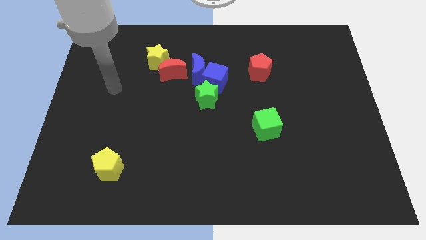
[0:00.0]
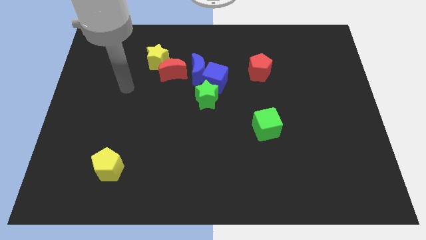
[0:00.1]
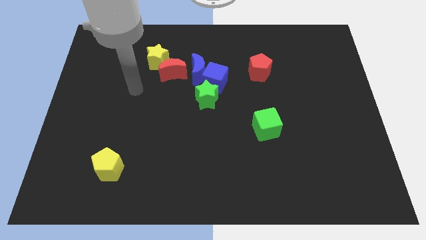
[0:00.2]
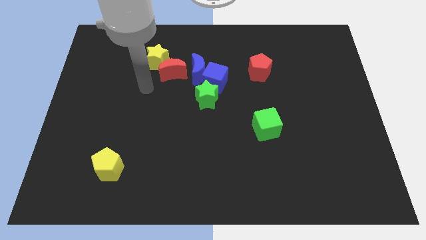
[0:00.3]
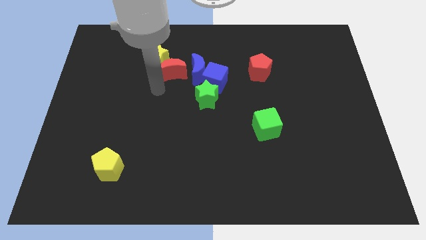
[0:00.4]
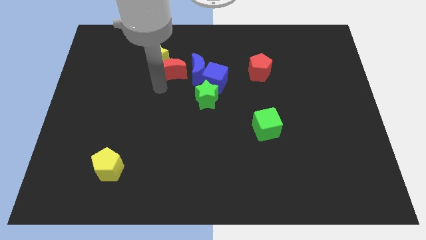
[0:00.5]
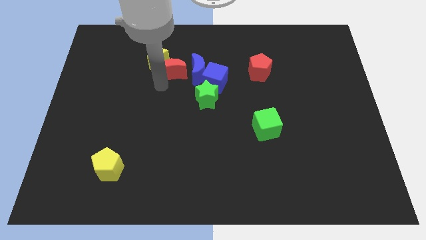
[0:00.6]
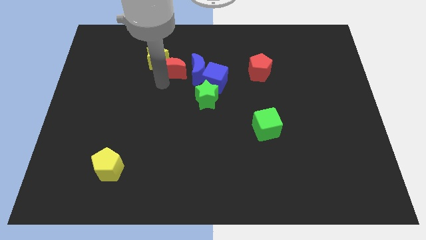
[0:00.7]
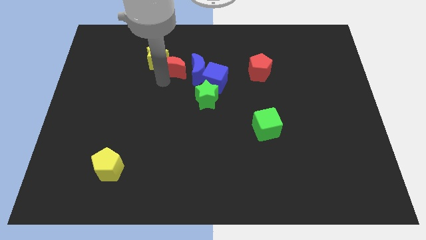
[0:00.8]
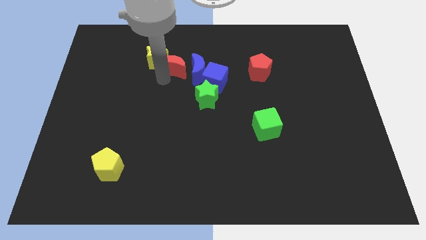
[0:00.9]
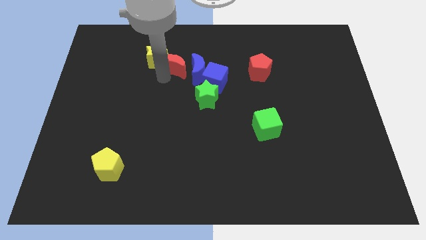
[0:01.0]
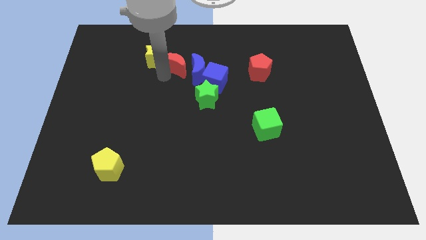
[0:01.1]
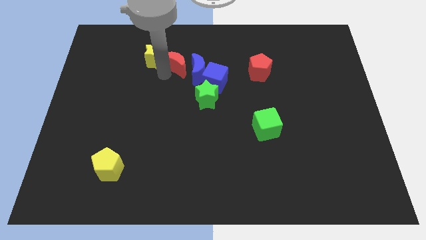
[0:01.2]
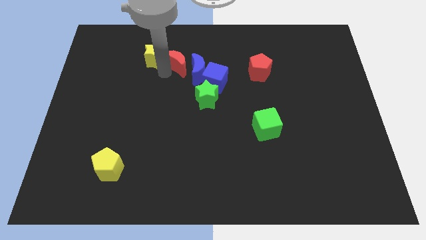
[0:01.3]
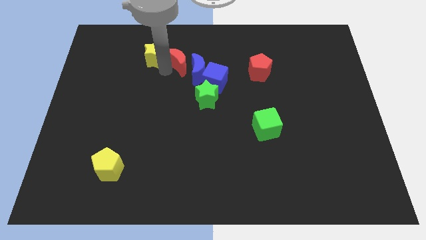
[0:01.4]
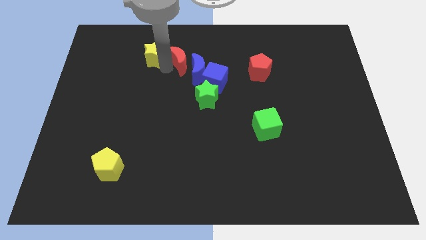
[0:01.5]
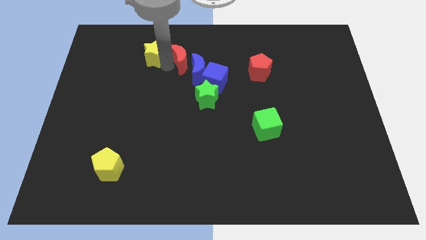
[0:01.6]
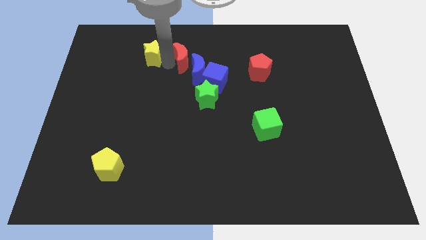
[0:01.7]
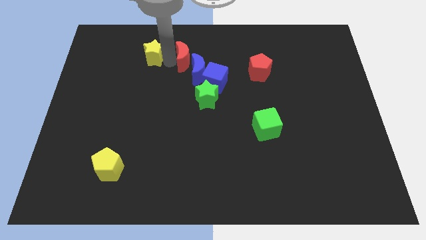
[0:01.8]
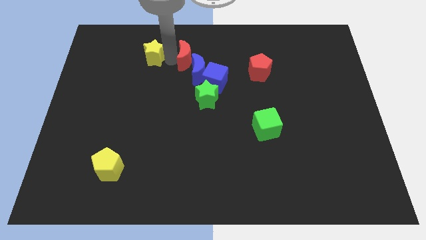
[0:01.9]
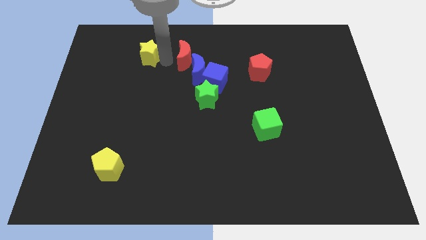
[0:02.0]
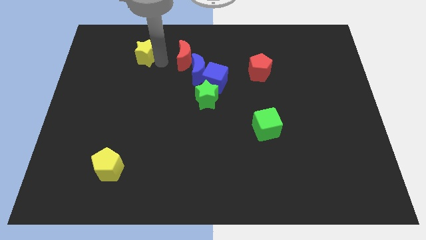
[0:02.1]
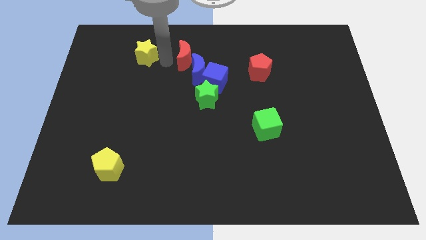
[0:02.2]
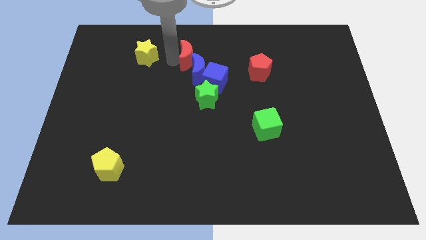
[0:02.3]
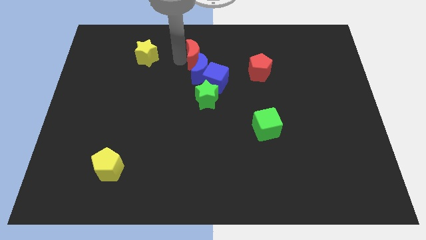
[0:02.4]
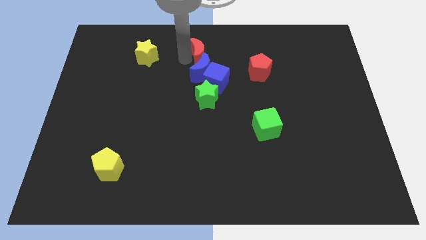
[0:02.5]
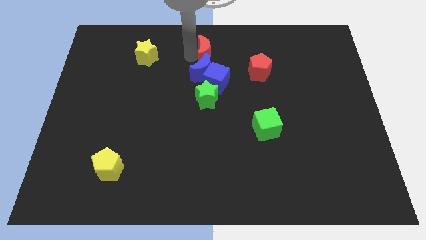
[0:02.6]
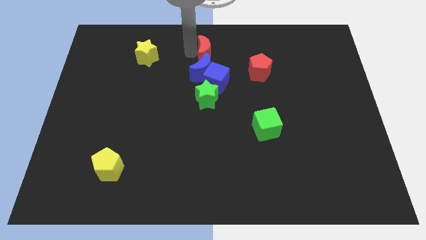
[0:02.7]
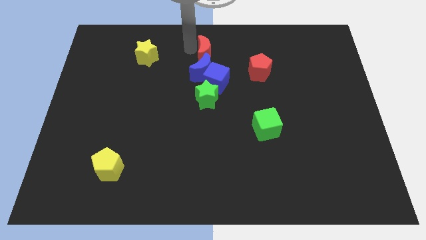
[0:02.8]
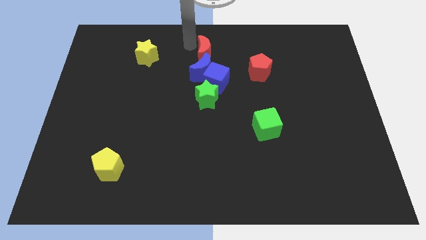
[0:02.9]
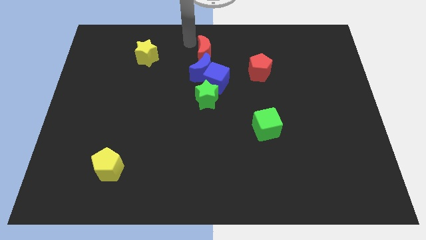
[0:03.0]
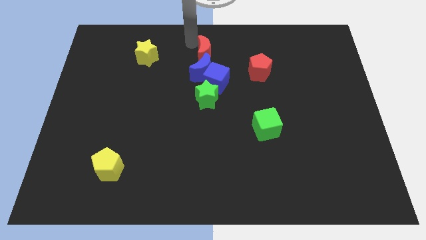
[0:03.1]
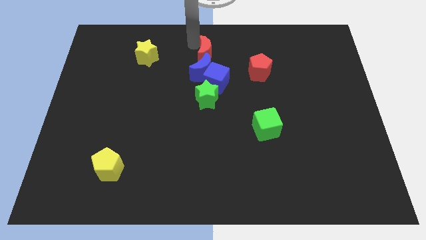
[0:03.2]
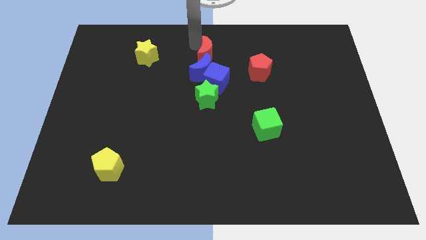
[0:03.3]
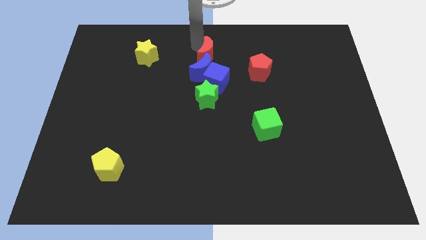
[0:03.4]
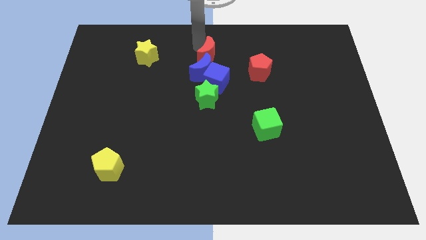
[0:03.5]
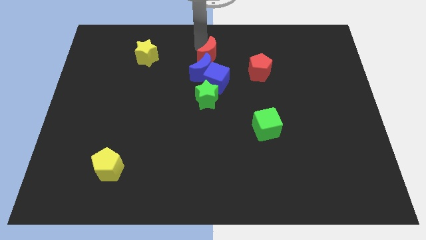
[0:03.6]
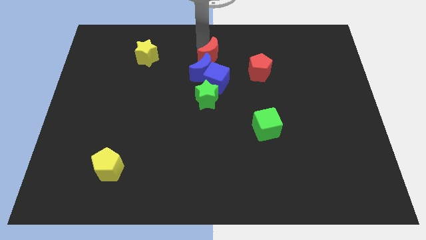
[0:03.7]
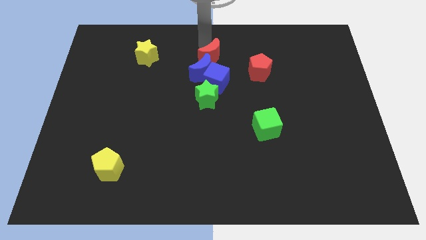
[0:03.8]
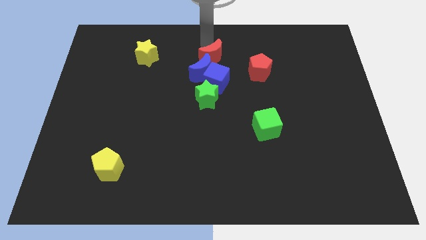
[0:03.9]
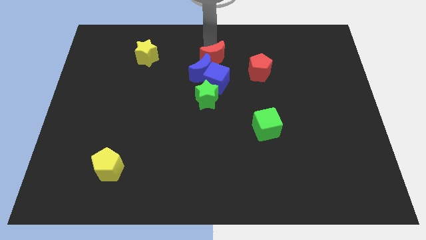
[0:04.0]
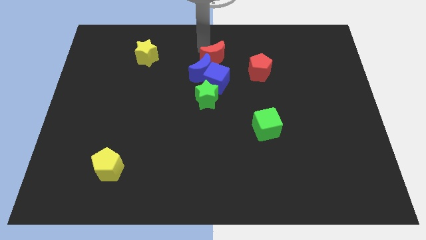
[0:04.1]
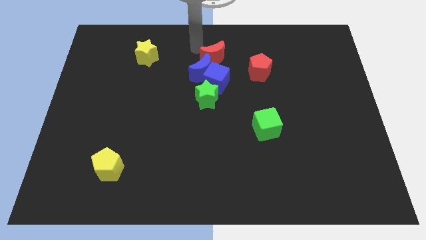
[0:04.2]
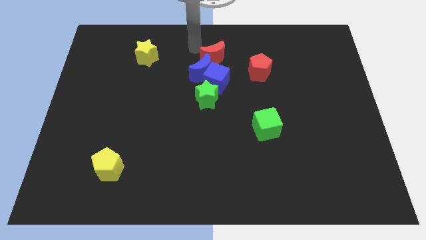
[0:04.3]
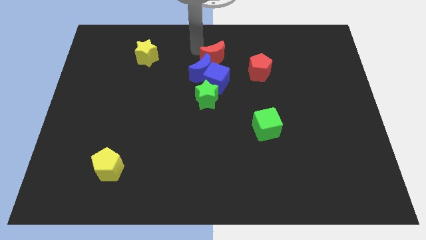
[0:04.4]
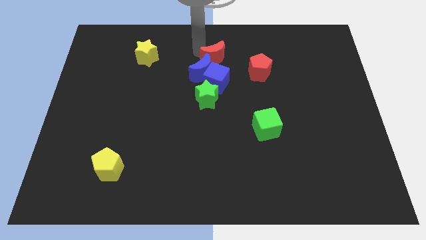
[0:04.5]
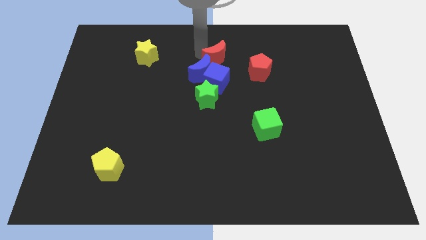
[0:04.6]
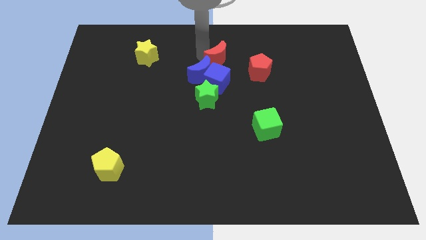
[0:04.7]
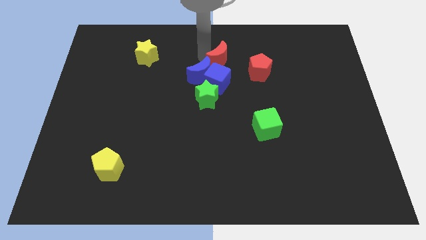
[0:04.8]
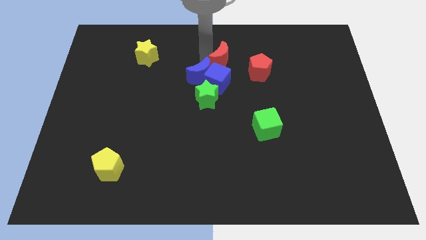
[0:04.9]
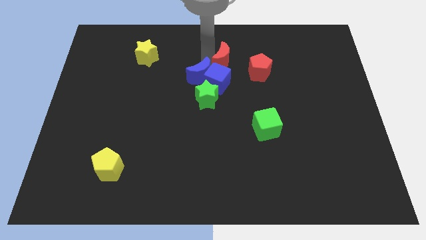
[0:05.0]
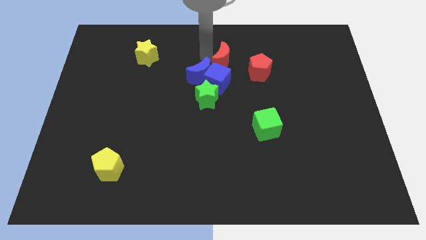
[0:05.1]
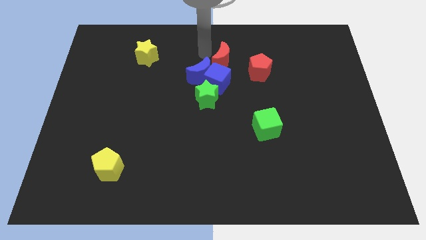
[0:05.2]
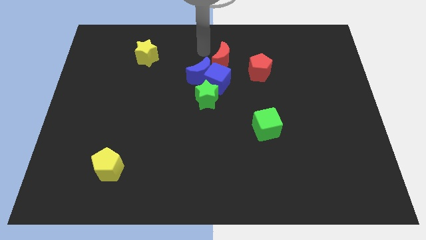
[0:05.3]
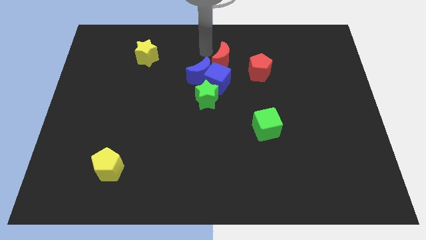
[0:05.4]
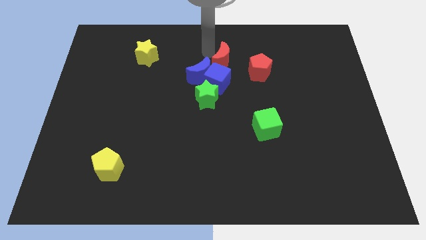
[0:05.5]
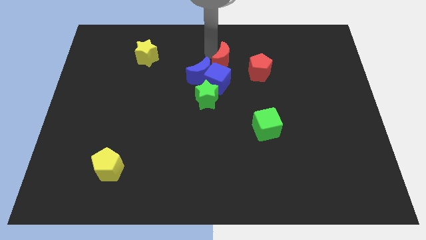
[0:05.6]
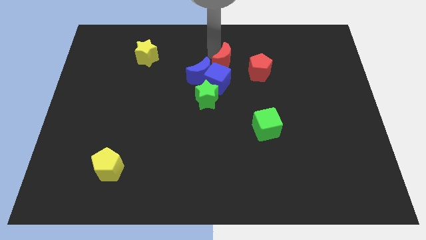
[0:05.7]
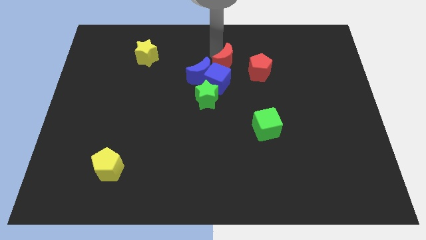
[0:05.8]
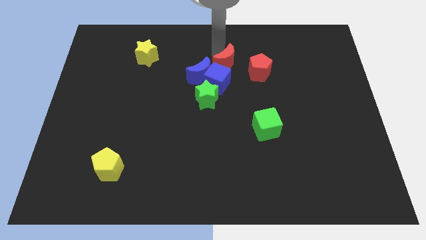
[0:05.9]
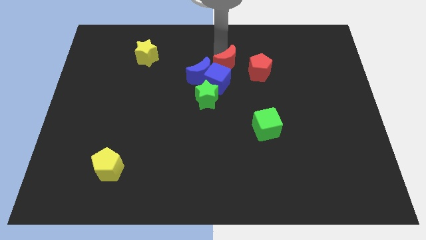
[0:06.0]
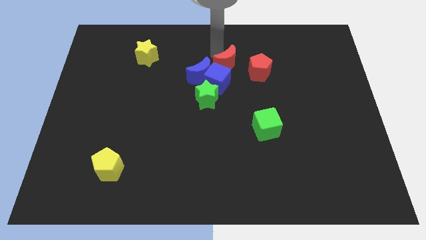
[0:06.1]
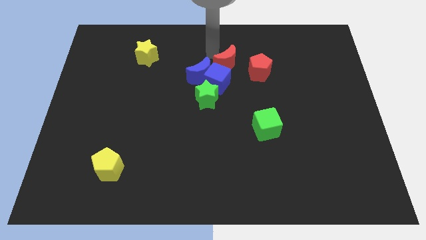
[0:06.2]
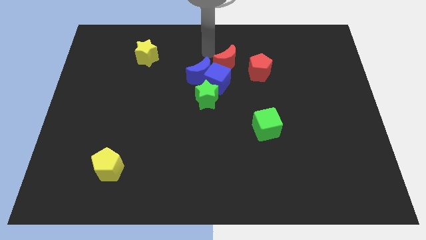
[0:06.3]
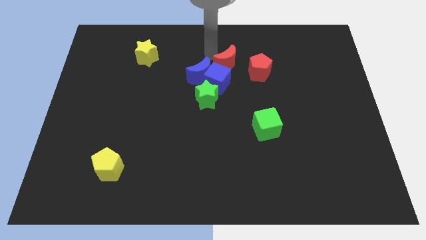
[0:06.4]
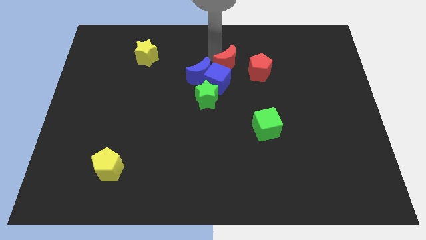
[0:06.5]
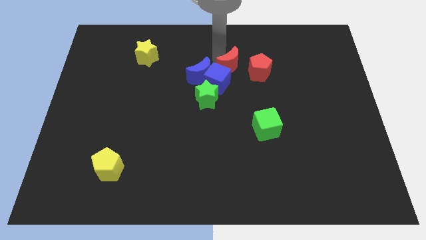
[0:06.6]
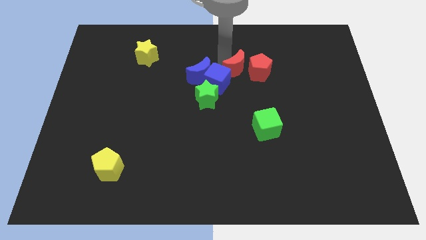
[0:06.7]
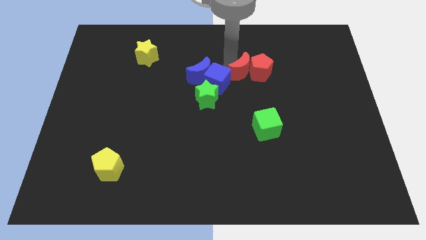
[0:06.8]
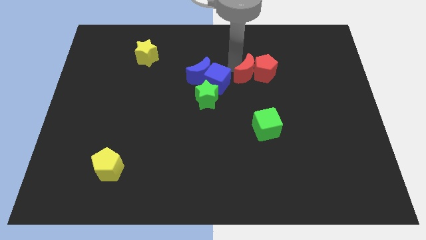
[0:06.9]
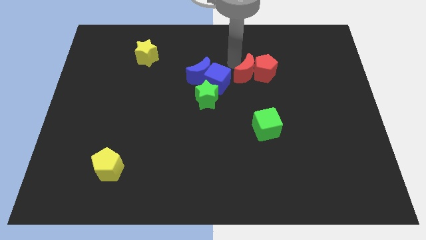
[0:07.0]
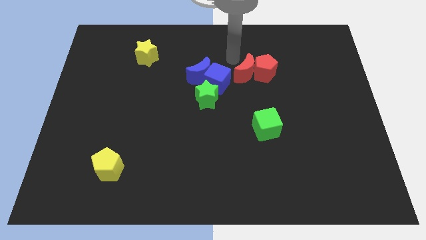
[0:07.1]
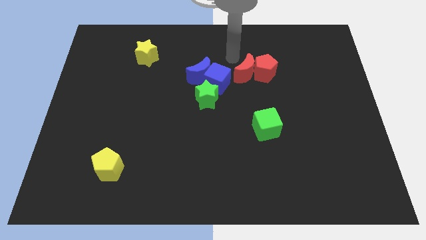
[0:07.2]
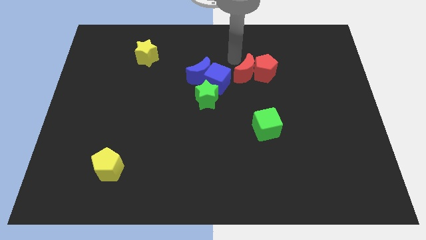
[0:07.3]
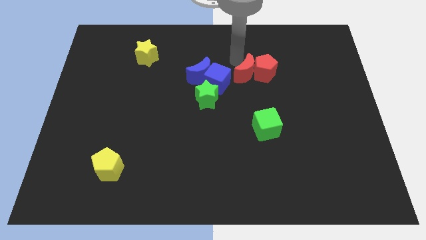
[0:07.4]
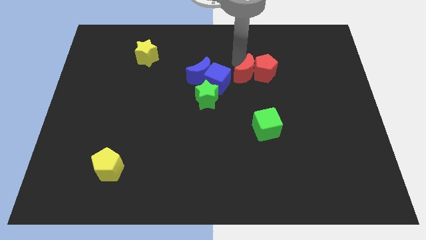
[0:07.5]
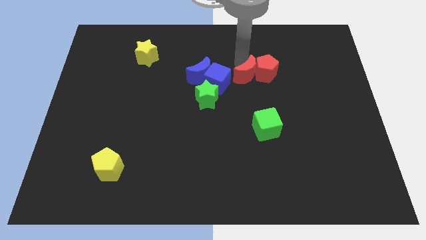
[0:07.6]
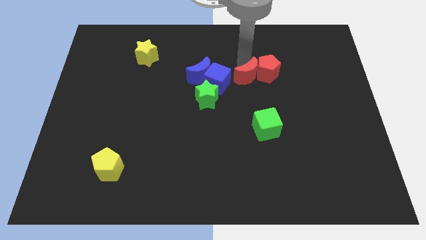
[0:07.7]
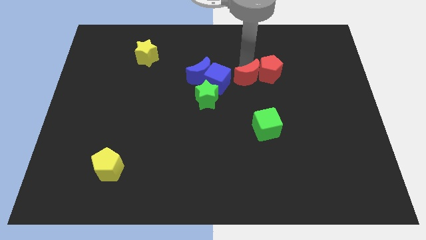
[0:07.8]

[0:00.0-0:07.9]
move the red moon to the top side of the green cube
